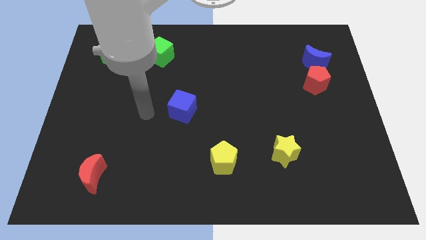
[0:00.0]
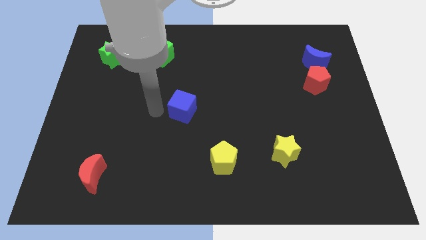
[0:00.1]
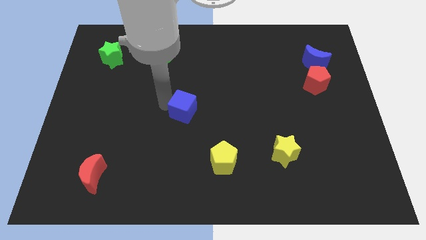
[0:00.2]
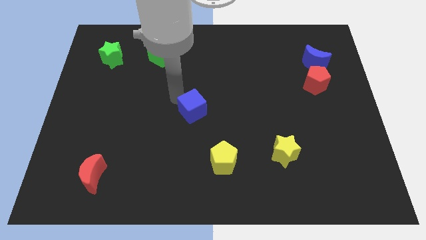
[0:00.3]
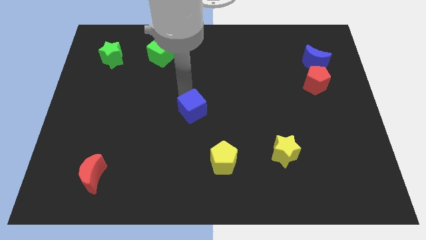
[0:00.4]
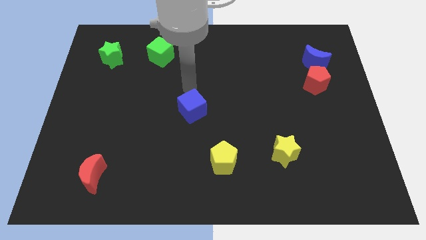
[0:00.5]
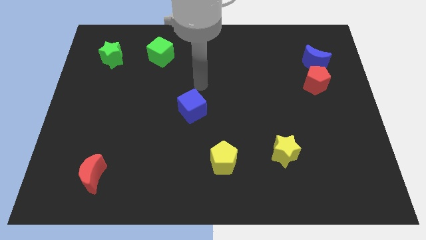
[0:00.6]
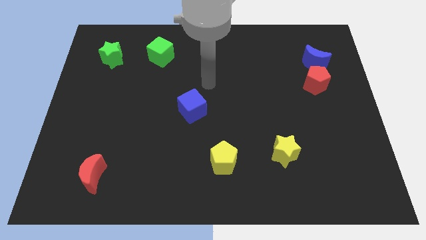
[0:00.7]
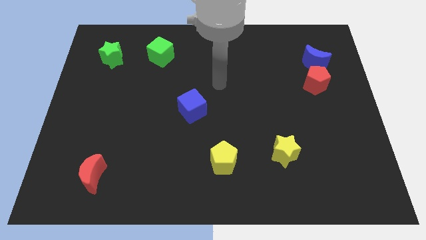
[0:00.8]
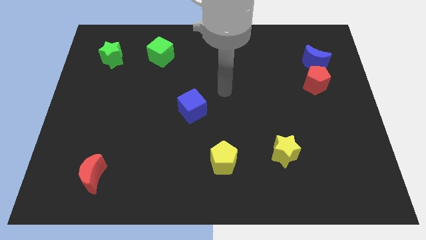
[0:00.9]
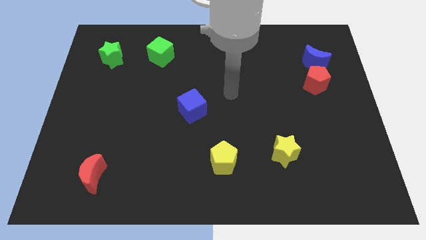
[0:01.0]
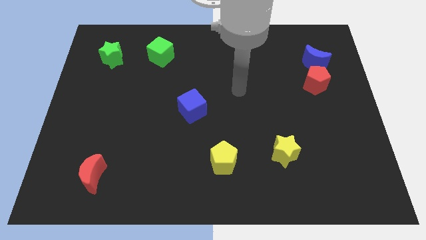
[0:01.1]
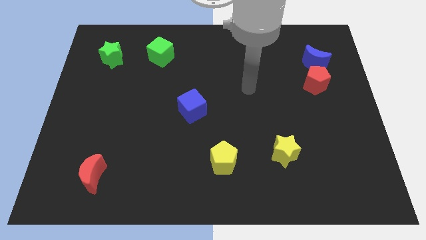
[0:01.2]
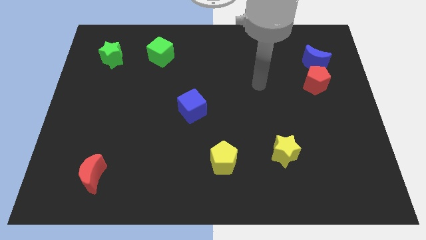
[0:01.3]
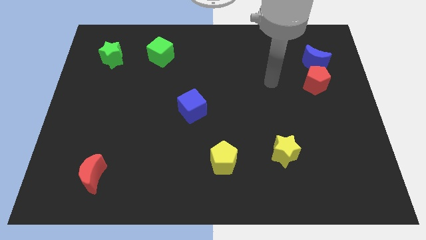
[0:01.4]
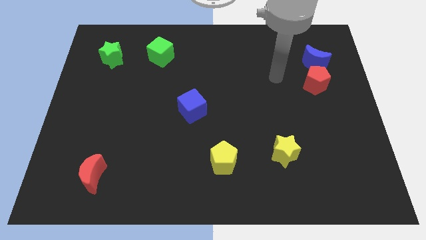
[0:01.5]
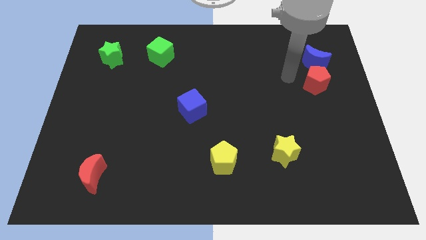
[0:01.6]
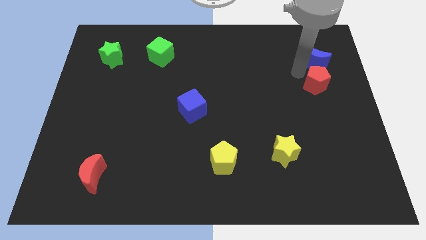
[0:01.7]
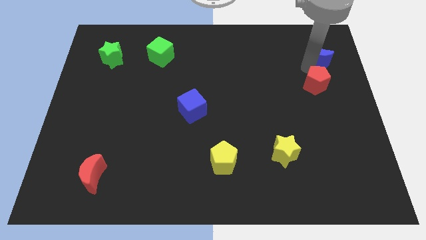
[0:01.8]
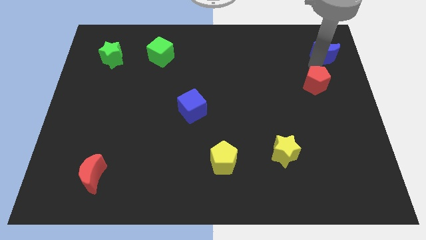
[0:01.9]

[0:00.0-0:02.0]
pull the red pentagon apart from the blue moon

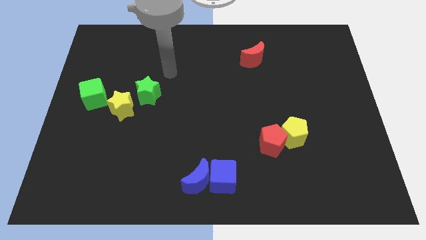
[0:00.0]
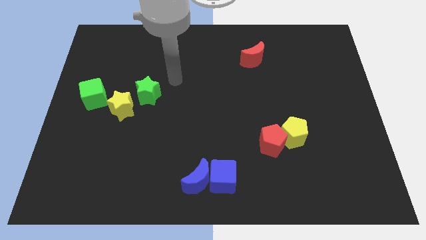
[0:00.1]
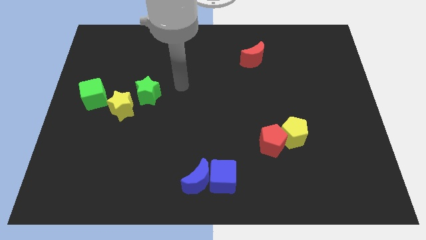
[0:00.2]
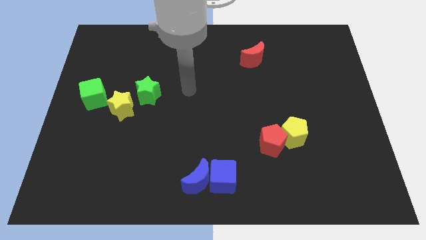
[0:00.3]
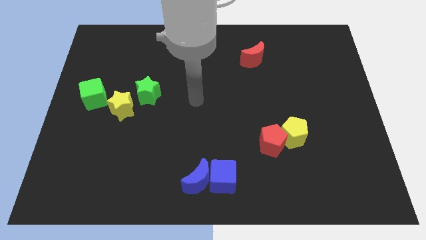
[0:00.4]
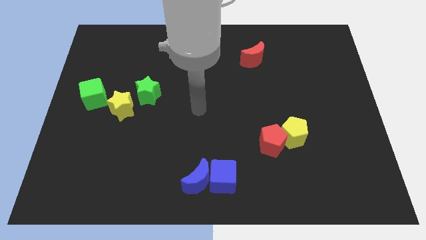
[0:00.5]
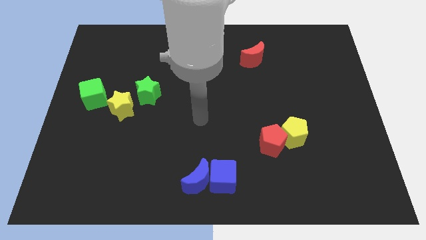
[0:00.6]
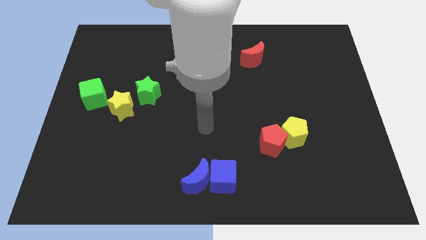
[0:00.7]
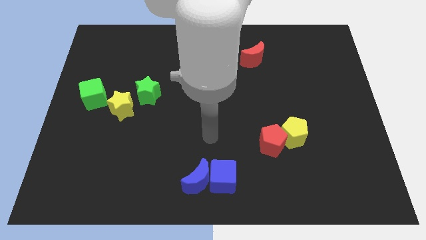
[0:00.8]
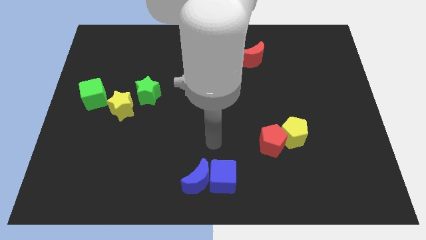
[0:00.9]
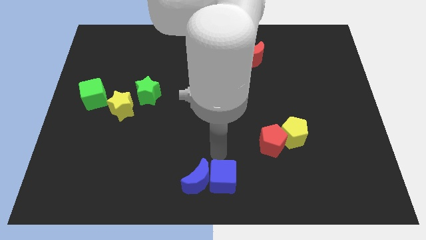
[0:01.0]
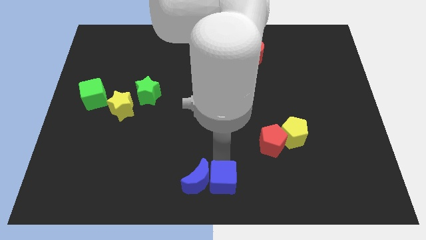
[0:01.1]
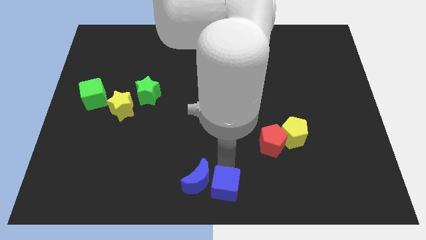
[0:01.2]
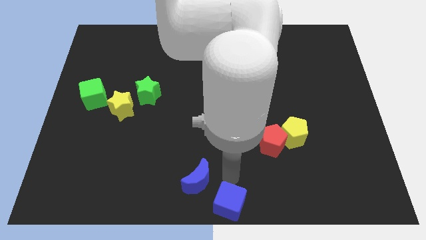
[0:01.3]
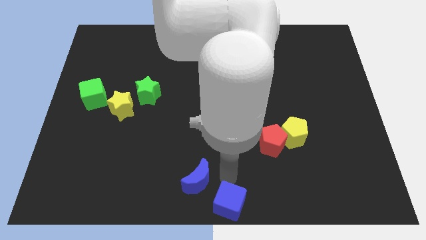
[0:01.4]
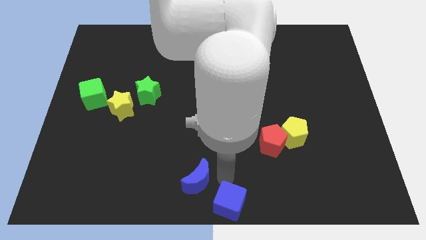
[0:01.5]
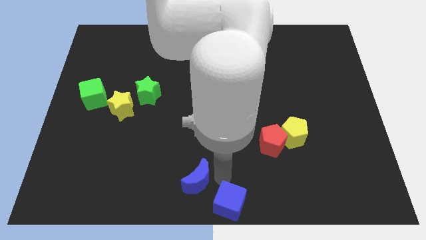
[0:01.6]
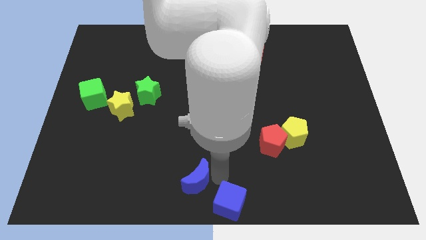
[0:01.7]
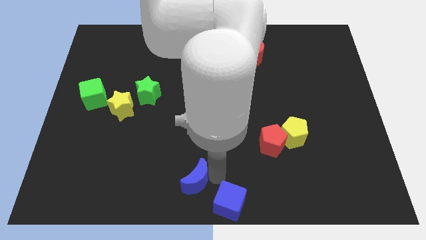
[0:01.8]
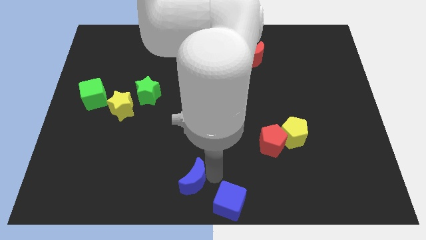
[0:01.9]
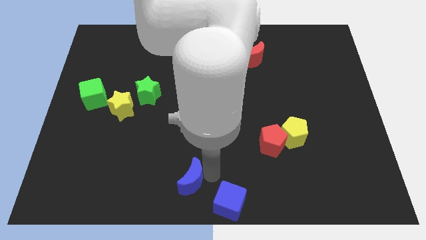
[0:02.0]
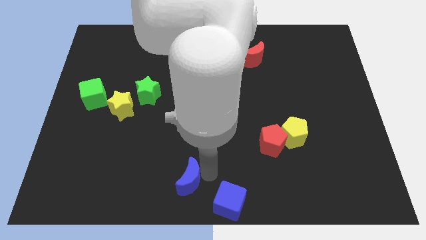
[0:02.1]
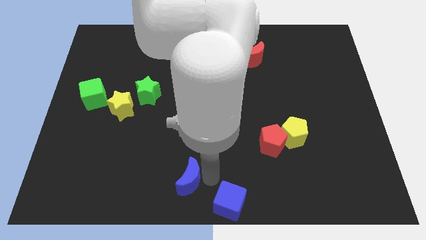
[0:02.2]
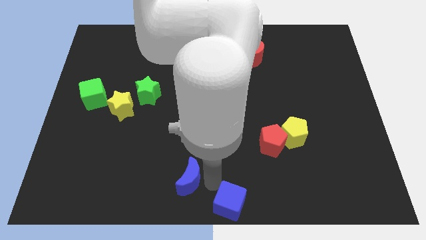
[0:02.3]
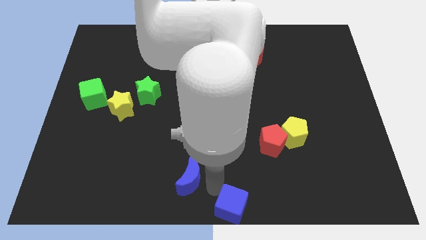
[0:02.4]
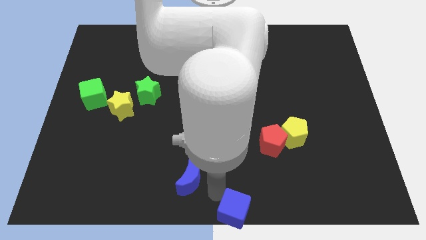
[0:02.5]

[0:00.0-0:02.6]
pull the blue moon apart from the blue cube

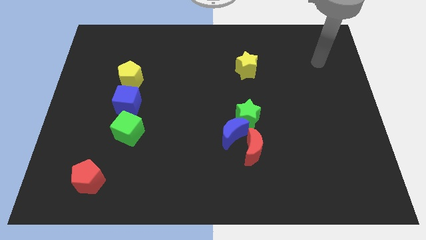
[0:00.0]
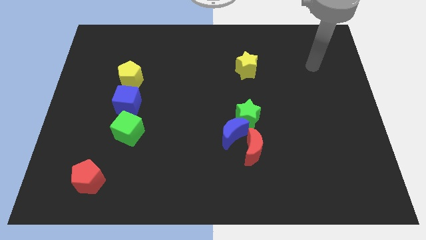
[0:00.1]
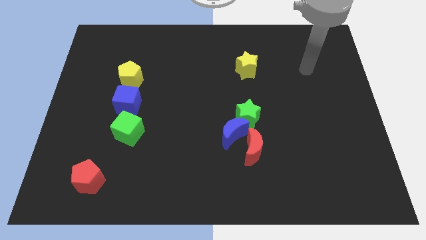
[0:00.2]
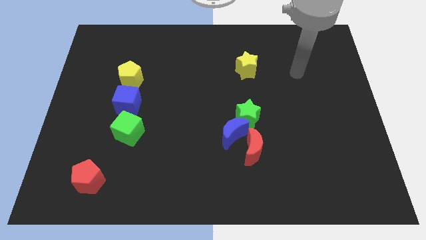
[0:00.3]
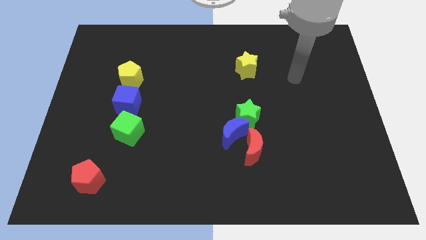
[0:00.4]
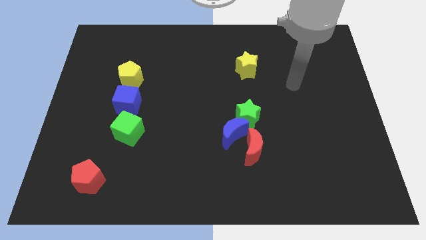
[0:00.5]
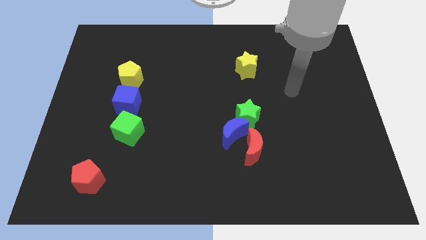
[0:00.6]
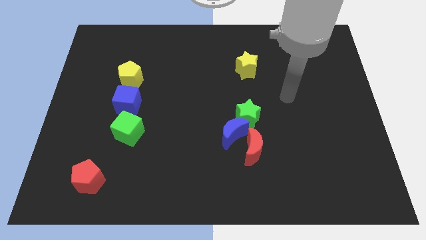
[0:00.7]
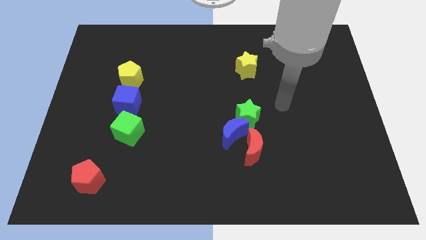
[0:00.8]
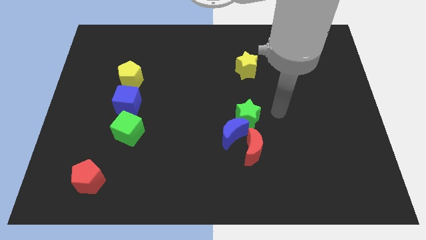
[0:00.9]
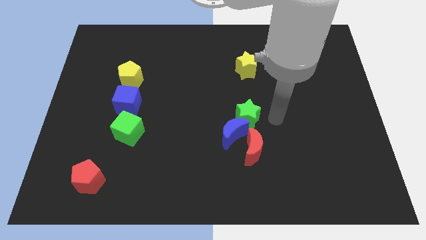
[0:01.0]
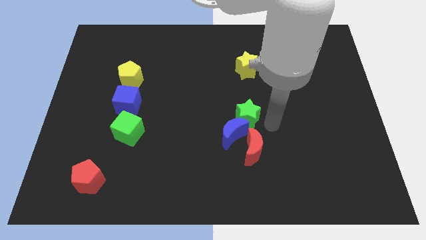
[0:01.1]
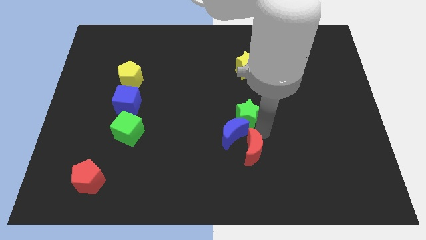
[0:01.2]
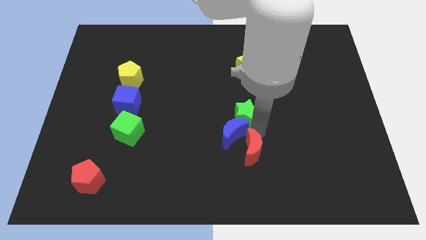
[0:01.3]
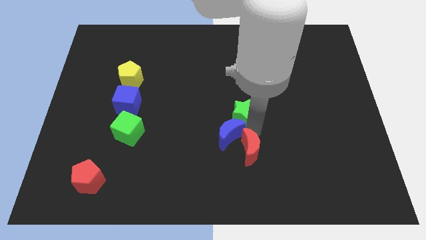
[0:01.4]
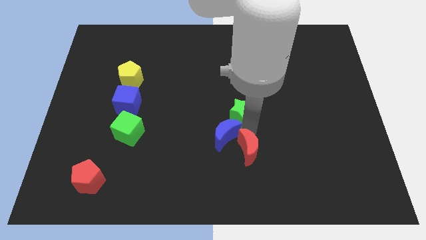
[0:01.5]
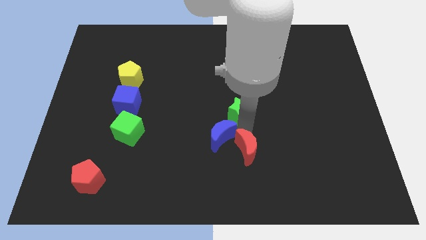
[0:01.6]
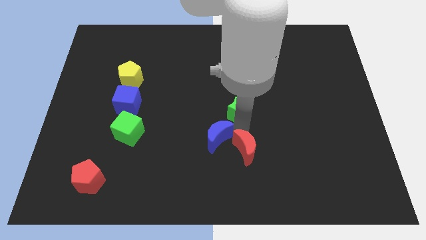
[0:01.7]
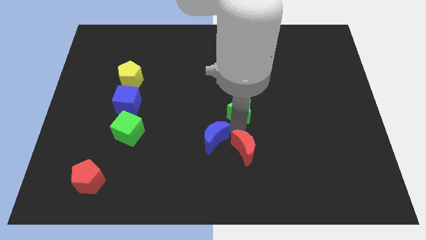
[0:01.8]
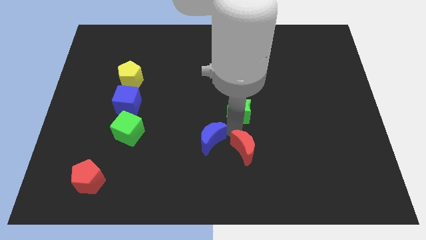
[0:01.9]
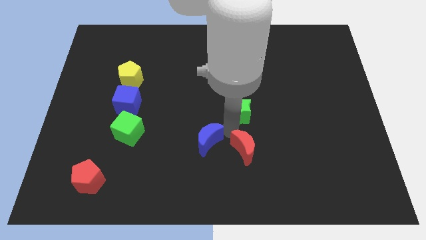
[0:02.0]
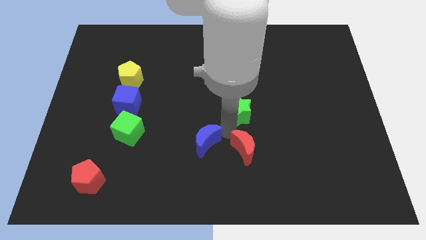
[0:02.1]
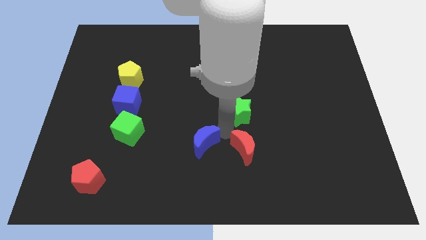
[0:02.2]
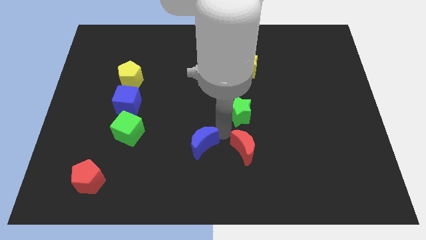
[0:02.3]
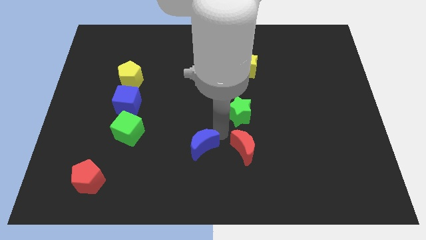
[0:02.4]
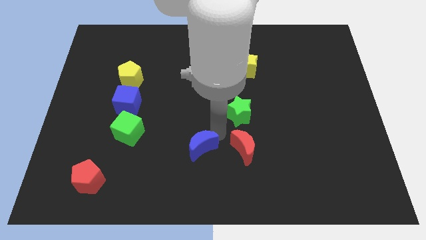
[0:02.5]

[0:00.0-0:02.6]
separate the blue moon from the green star and red moon

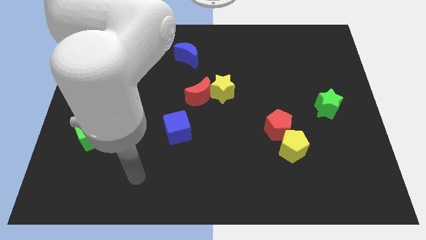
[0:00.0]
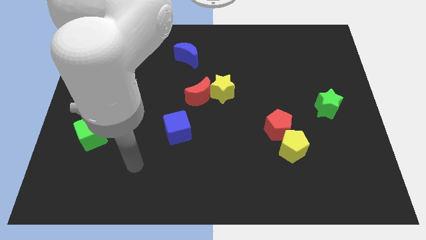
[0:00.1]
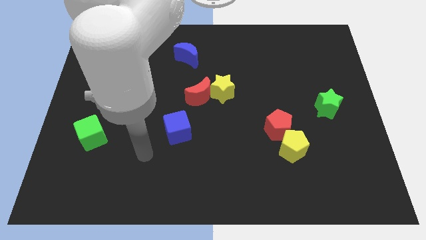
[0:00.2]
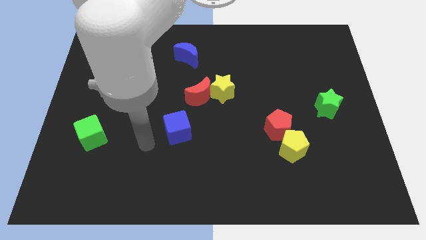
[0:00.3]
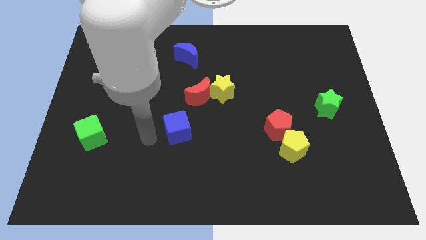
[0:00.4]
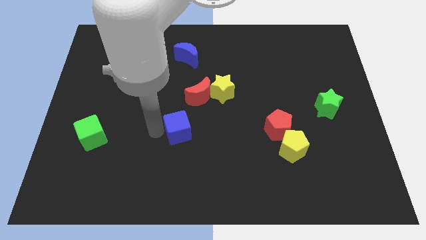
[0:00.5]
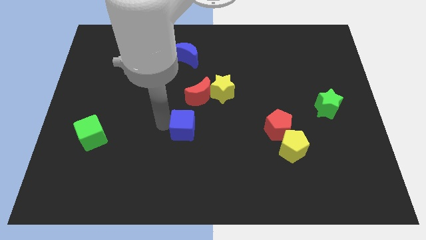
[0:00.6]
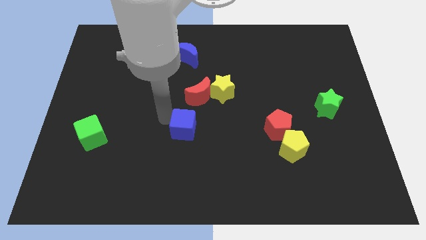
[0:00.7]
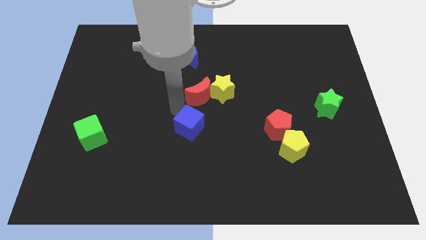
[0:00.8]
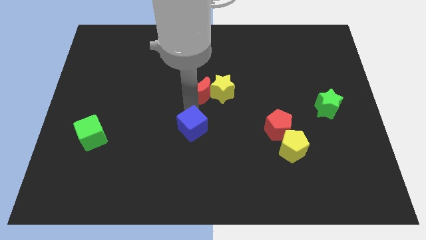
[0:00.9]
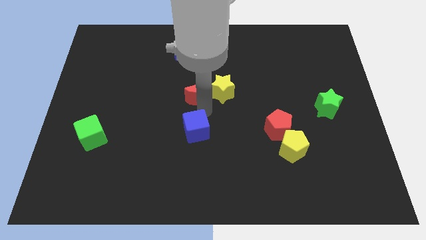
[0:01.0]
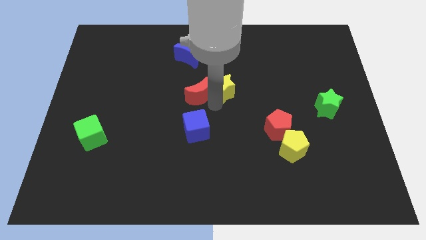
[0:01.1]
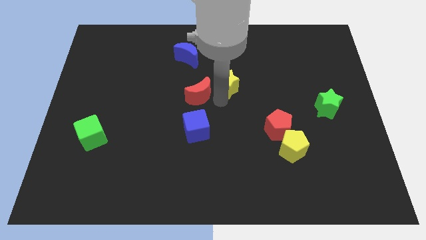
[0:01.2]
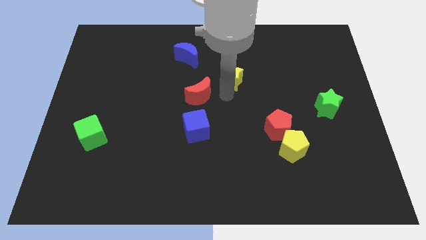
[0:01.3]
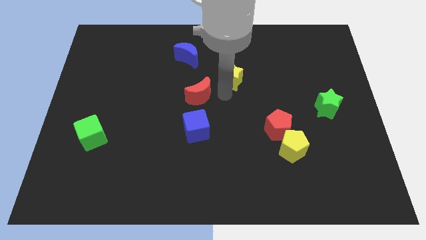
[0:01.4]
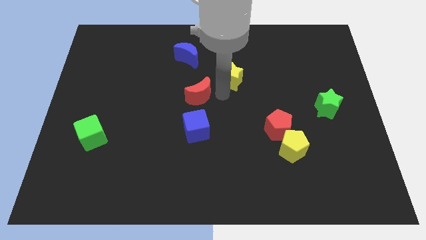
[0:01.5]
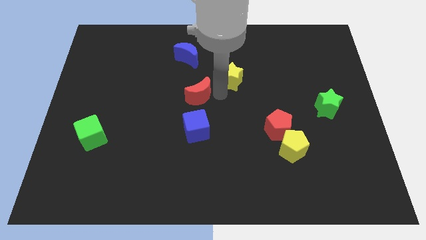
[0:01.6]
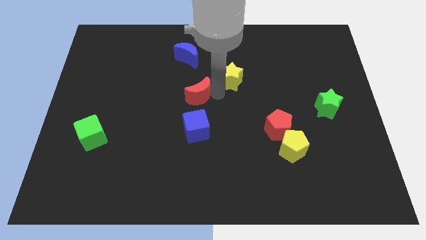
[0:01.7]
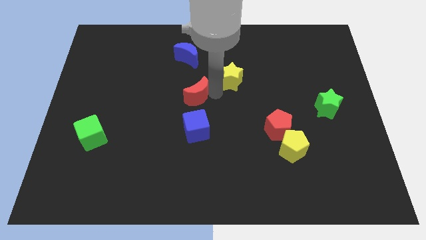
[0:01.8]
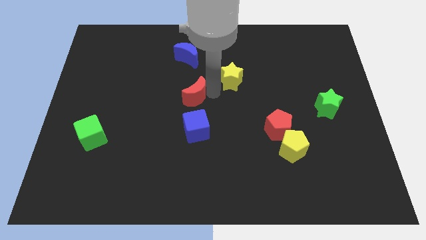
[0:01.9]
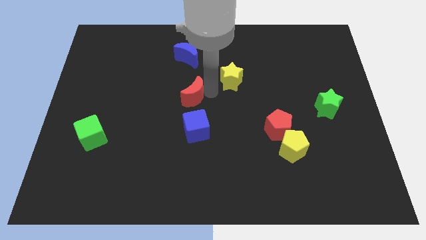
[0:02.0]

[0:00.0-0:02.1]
separate the red moon from the yellow star
